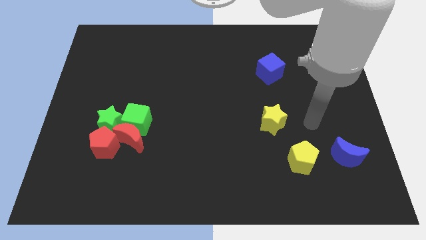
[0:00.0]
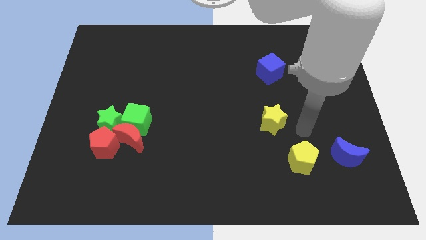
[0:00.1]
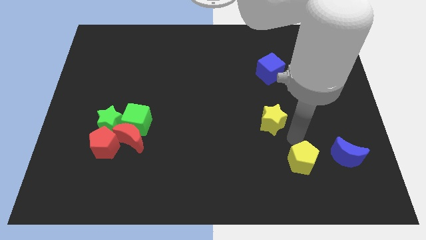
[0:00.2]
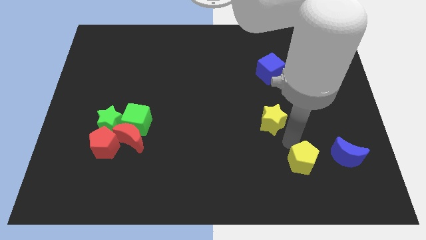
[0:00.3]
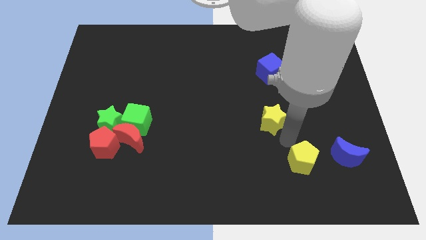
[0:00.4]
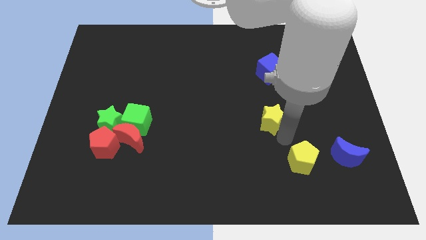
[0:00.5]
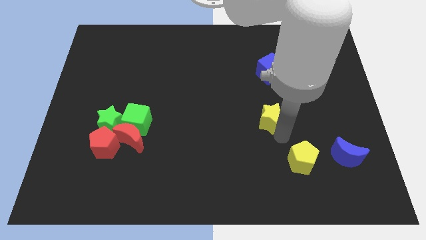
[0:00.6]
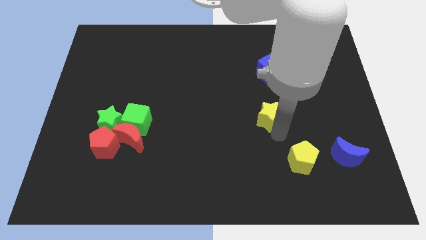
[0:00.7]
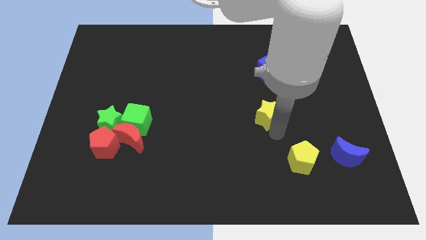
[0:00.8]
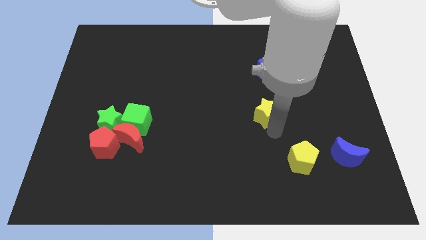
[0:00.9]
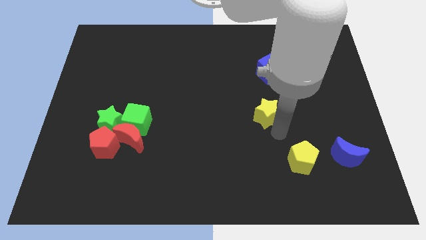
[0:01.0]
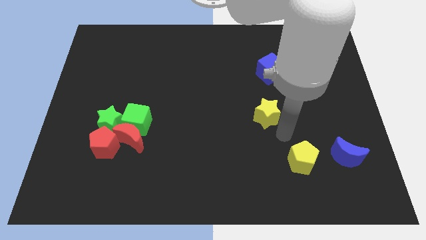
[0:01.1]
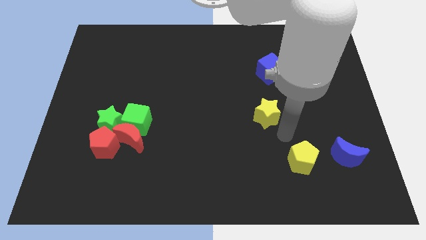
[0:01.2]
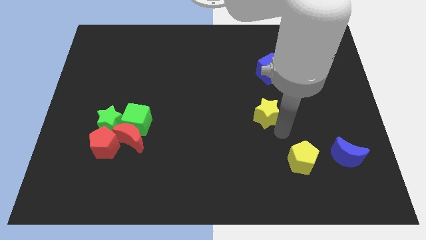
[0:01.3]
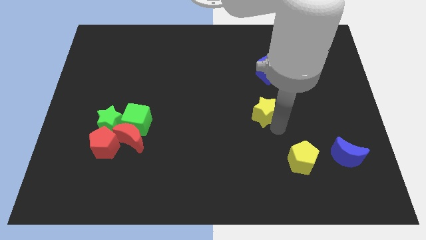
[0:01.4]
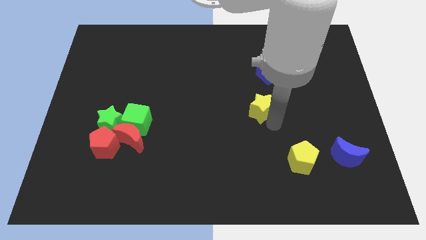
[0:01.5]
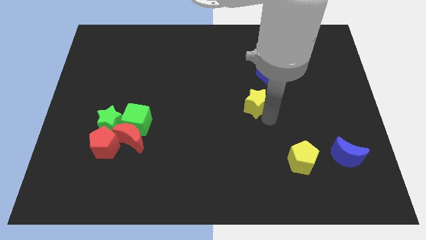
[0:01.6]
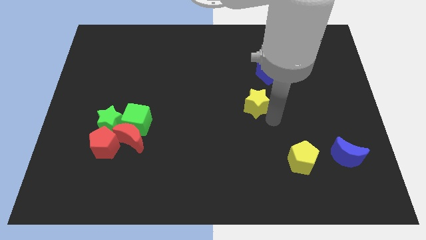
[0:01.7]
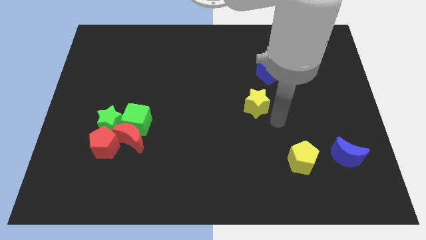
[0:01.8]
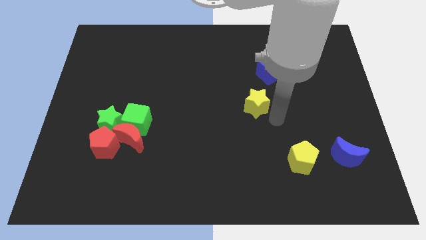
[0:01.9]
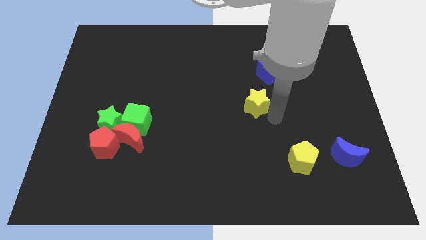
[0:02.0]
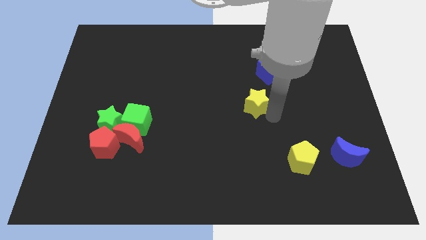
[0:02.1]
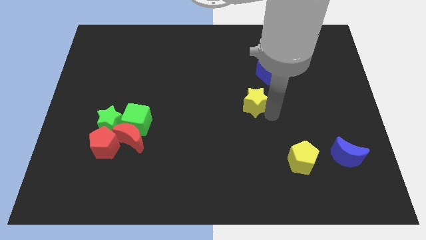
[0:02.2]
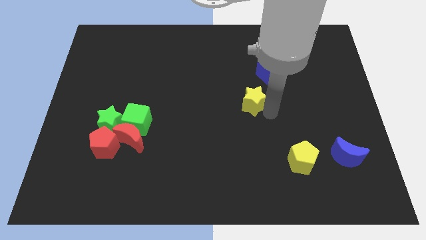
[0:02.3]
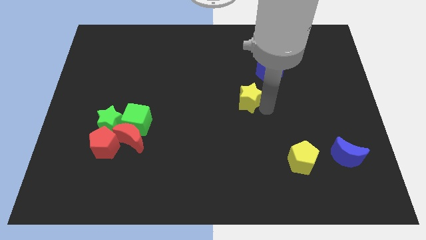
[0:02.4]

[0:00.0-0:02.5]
slightly slide the yellow star up and left diagonally

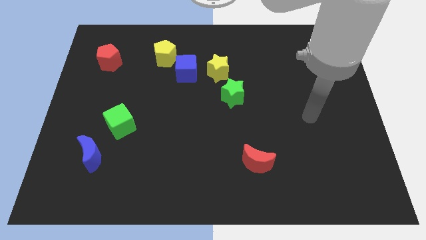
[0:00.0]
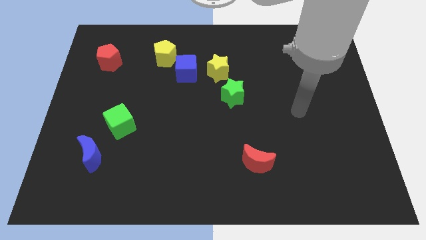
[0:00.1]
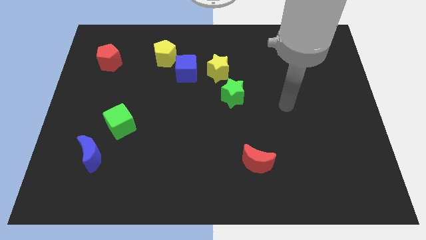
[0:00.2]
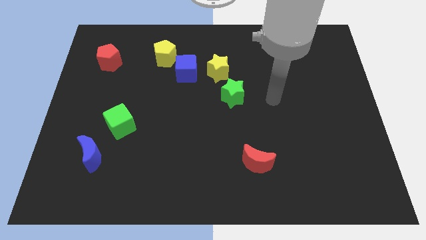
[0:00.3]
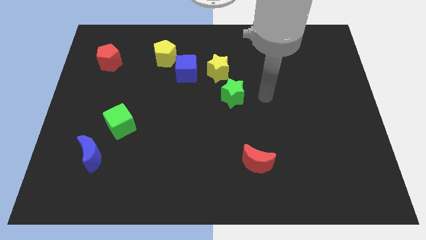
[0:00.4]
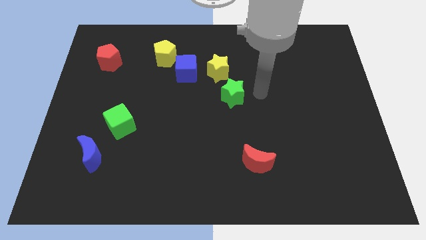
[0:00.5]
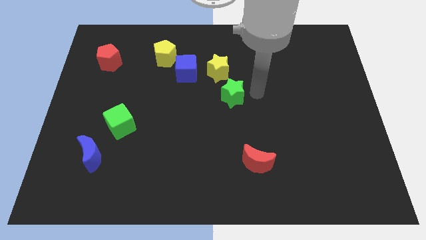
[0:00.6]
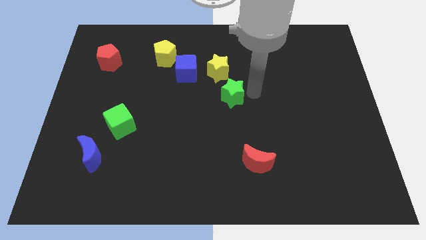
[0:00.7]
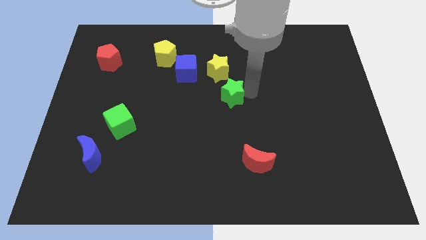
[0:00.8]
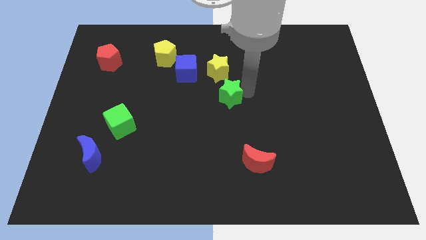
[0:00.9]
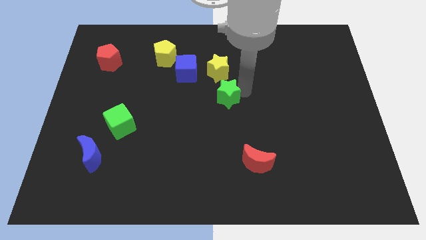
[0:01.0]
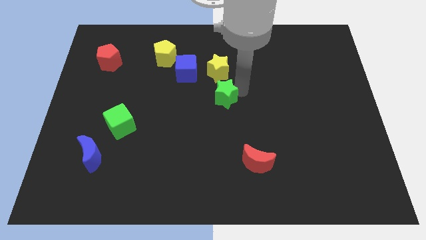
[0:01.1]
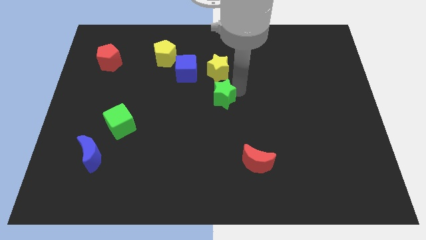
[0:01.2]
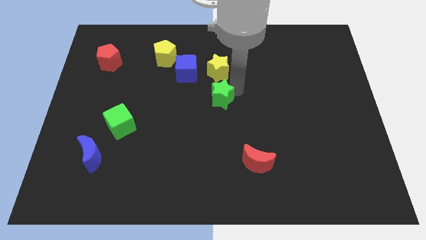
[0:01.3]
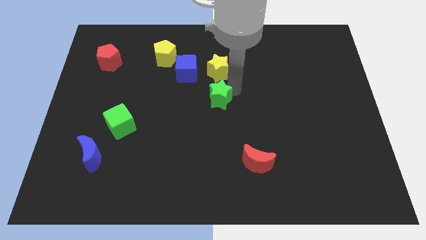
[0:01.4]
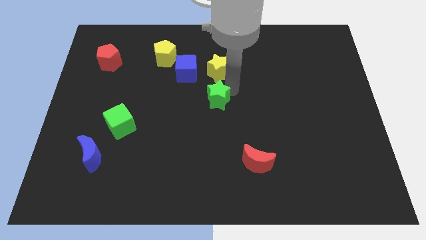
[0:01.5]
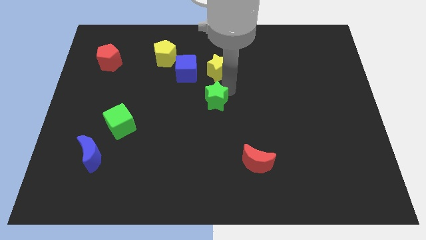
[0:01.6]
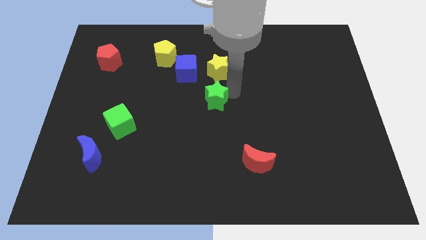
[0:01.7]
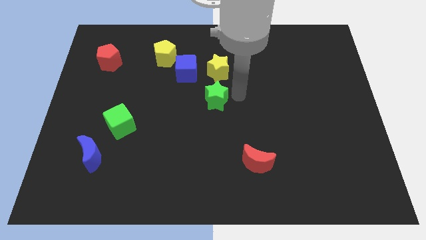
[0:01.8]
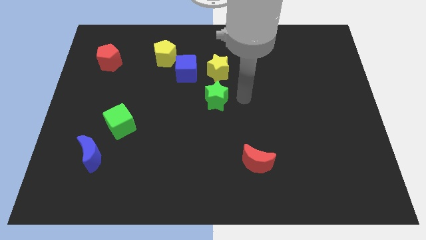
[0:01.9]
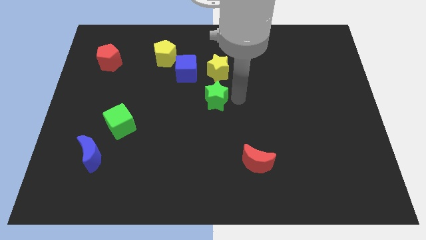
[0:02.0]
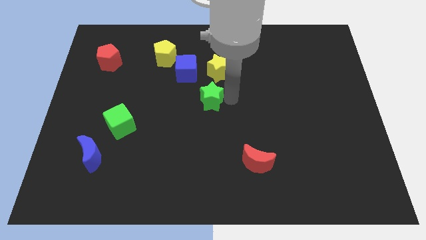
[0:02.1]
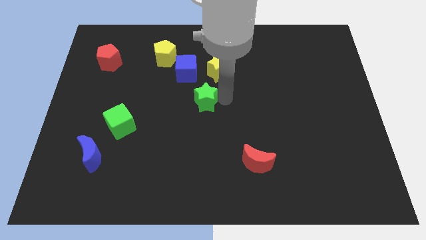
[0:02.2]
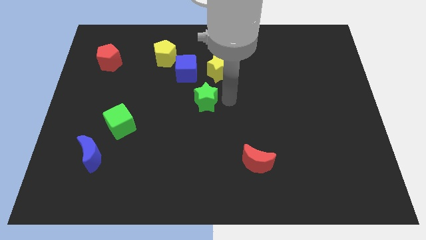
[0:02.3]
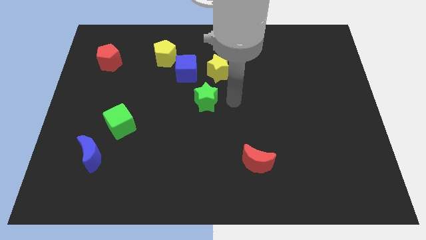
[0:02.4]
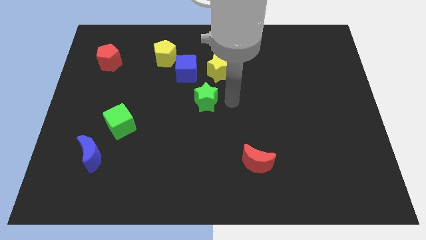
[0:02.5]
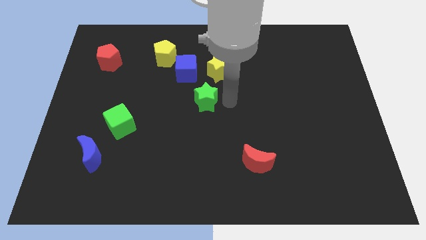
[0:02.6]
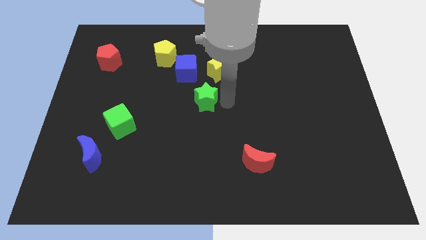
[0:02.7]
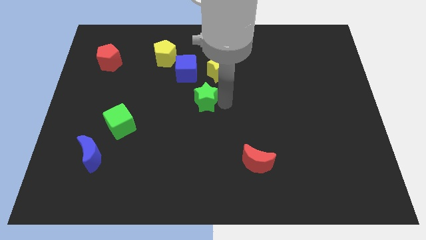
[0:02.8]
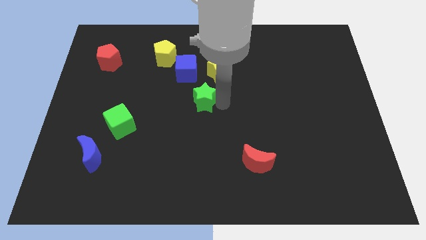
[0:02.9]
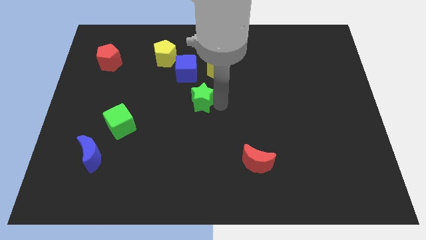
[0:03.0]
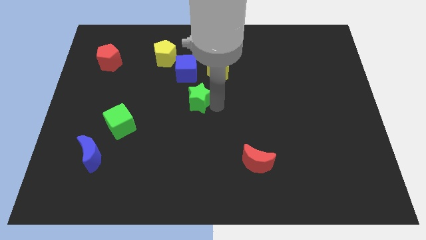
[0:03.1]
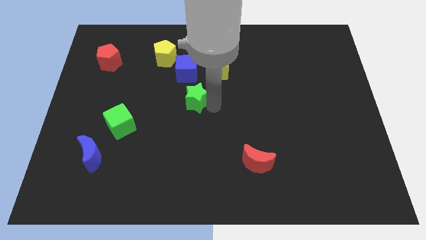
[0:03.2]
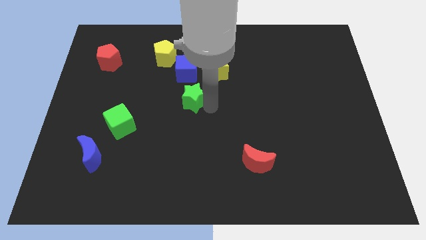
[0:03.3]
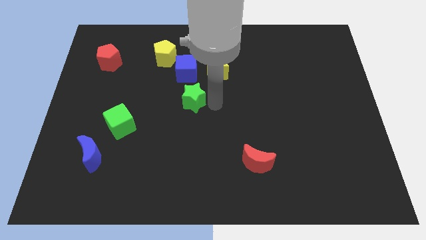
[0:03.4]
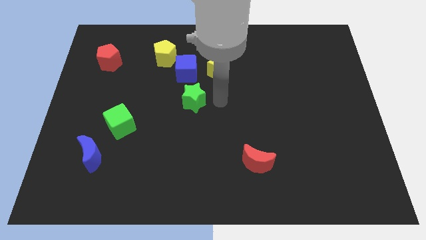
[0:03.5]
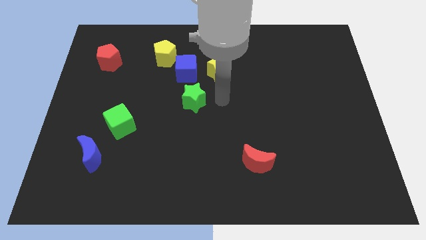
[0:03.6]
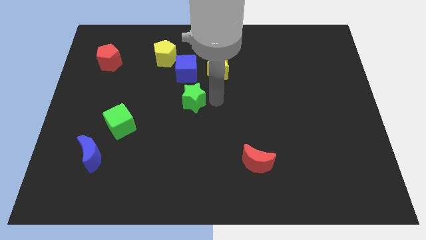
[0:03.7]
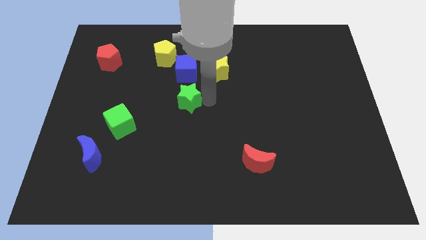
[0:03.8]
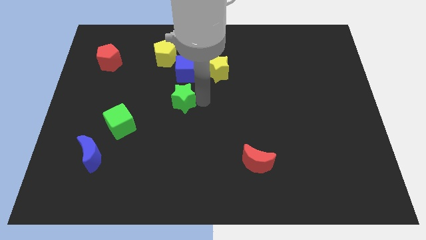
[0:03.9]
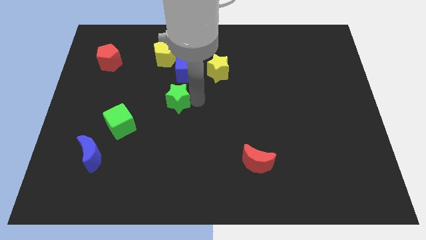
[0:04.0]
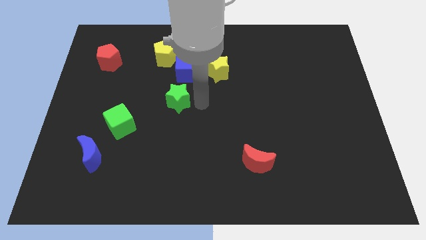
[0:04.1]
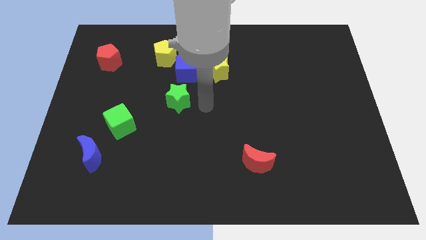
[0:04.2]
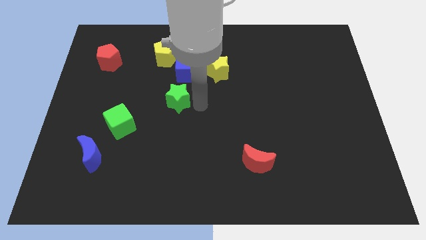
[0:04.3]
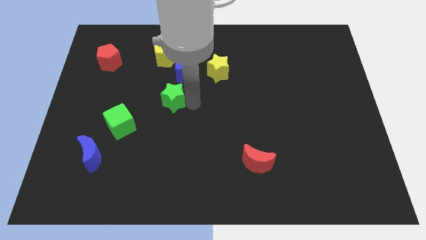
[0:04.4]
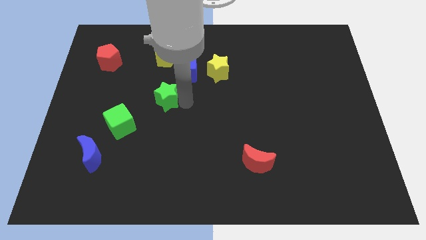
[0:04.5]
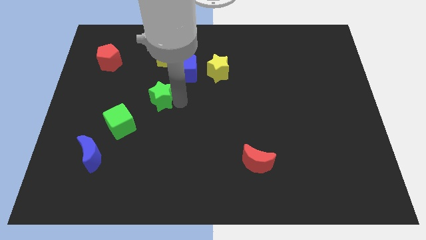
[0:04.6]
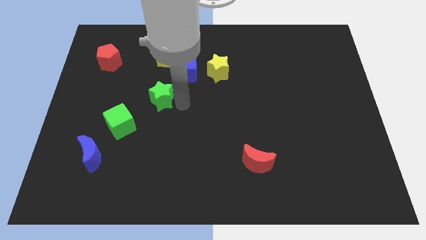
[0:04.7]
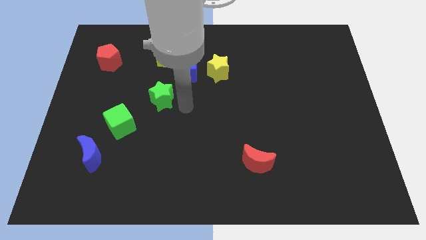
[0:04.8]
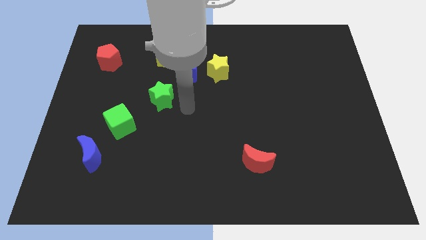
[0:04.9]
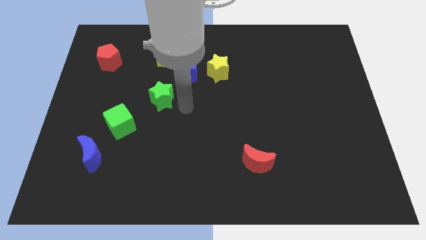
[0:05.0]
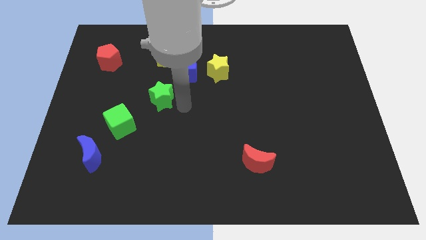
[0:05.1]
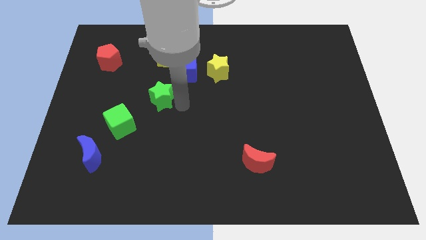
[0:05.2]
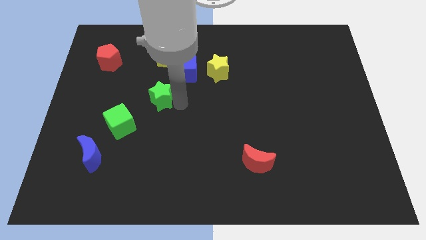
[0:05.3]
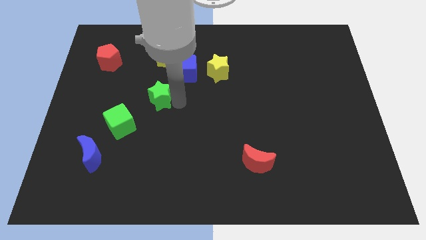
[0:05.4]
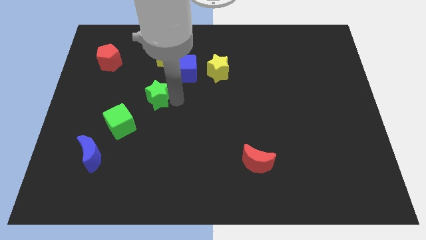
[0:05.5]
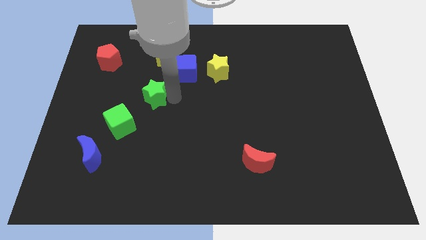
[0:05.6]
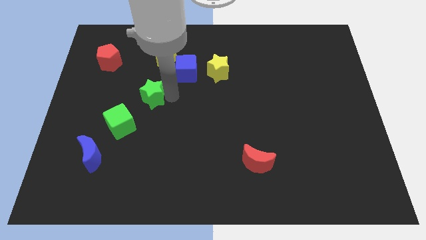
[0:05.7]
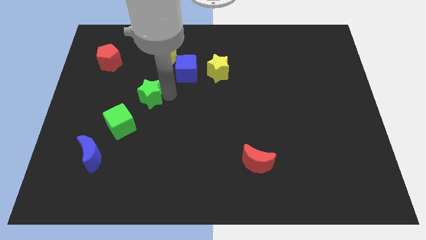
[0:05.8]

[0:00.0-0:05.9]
slide the green star left
